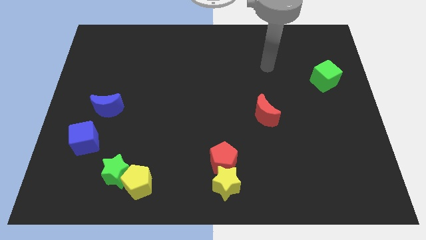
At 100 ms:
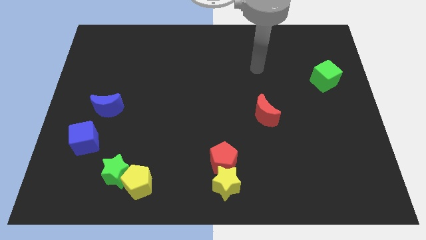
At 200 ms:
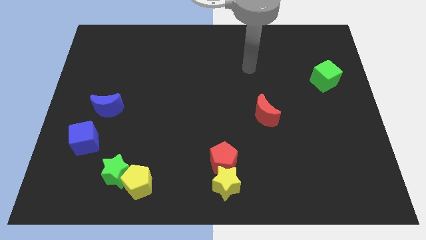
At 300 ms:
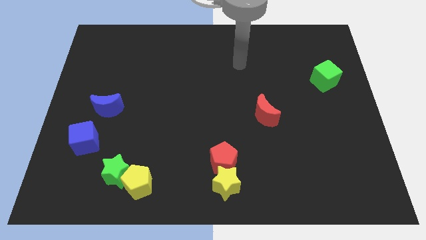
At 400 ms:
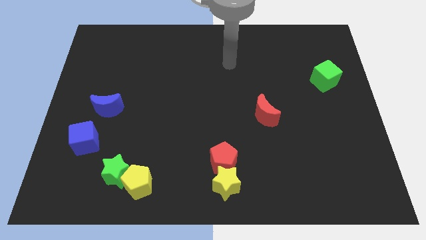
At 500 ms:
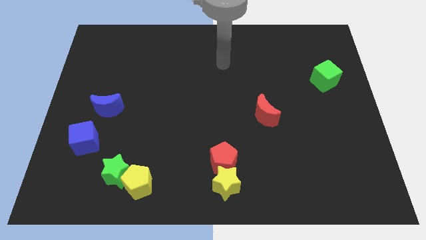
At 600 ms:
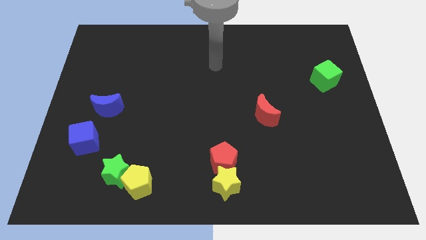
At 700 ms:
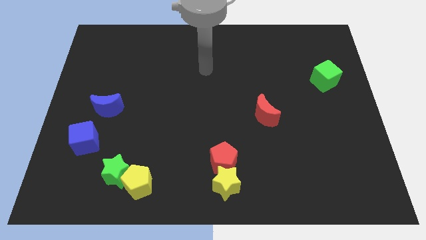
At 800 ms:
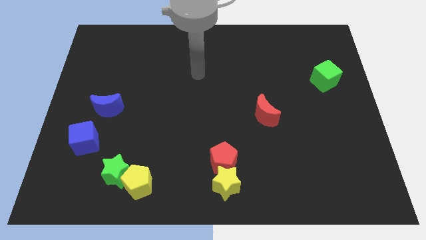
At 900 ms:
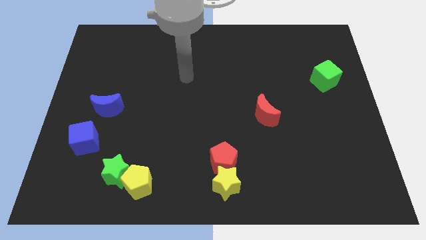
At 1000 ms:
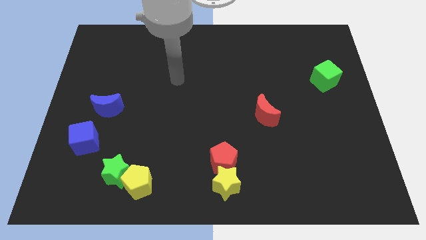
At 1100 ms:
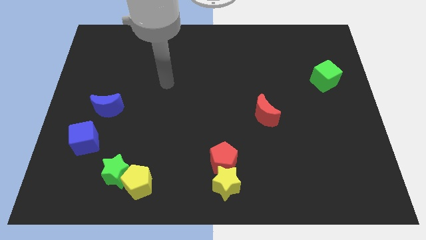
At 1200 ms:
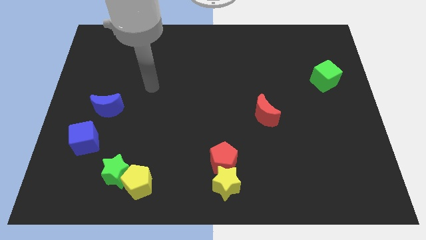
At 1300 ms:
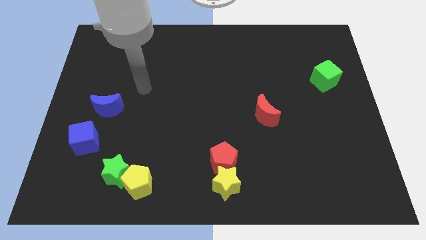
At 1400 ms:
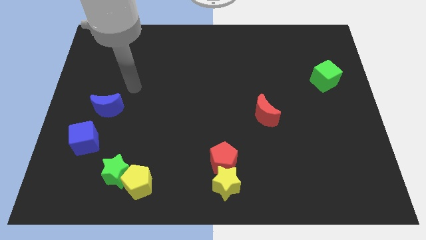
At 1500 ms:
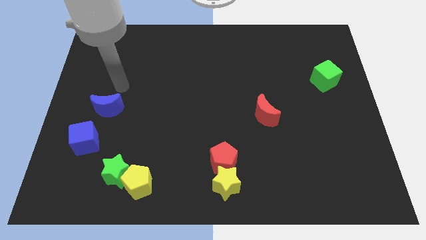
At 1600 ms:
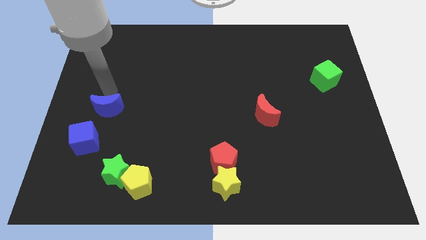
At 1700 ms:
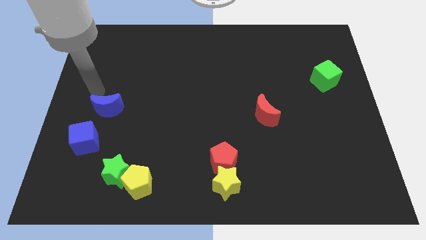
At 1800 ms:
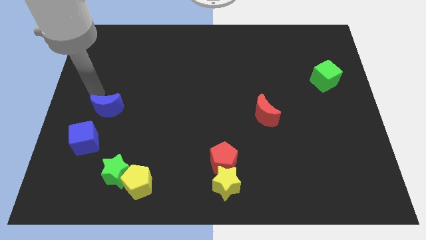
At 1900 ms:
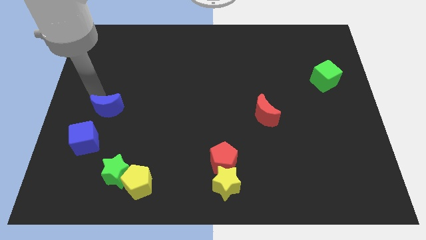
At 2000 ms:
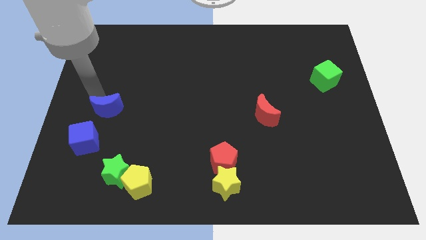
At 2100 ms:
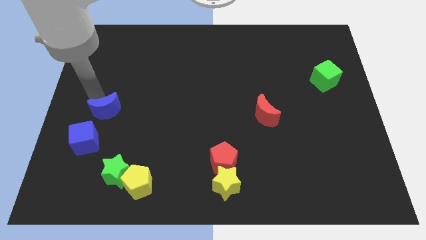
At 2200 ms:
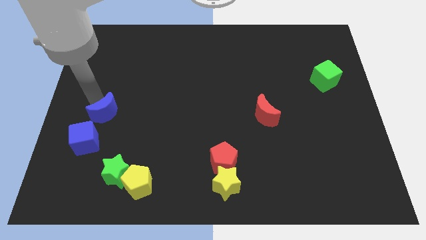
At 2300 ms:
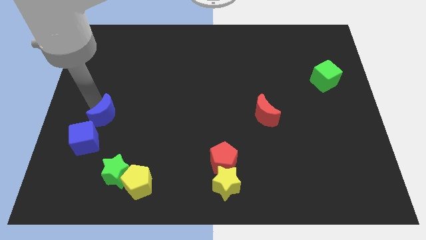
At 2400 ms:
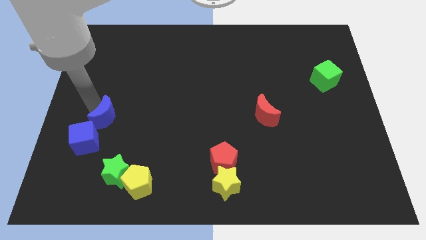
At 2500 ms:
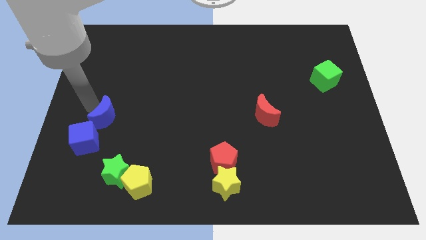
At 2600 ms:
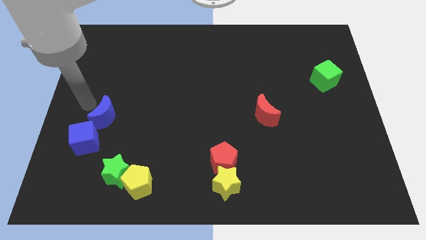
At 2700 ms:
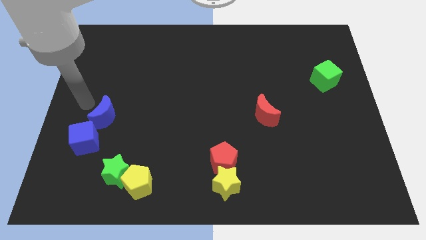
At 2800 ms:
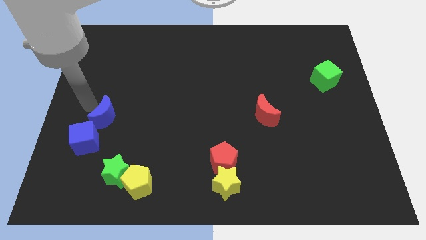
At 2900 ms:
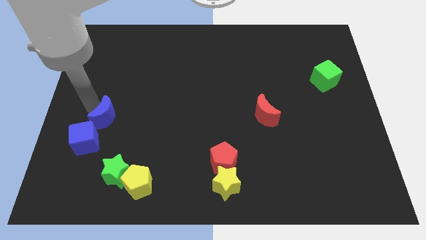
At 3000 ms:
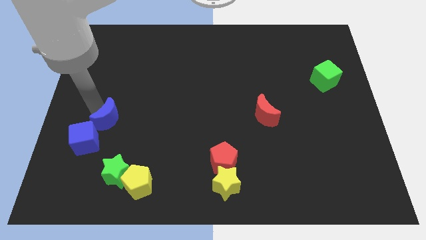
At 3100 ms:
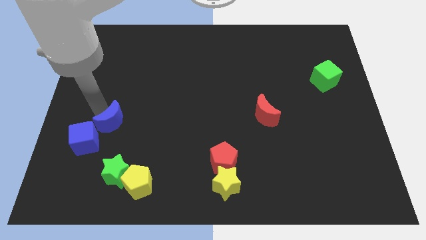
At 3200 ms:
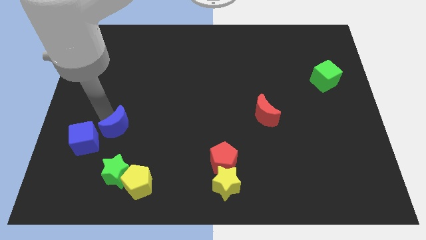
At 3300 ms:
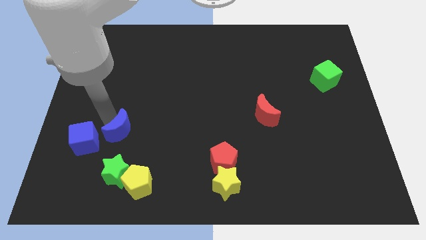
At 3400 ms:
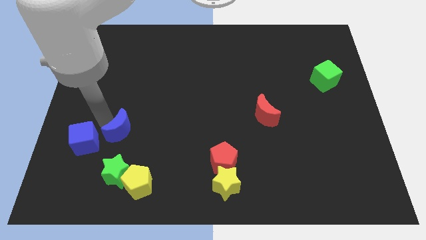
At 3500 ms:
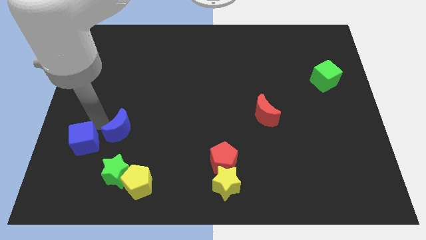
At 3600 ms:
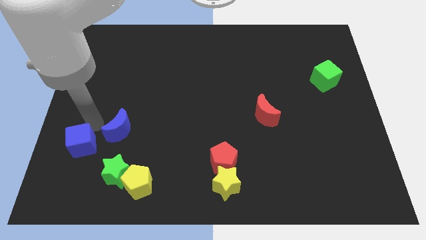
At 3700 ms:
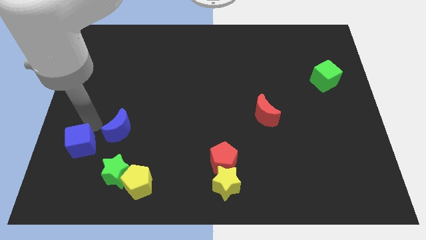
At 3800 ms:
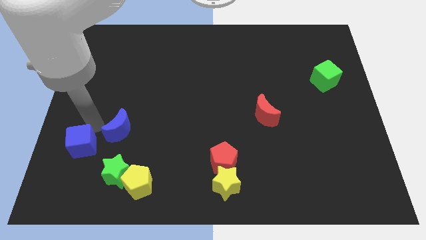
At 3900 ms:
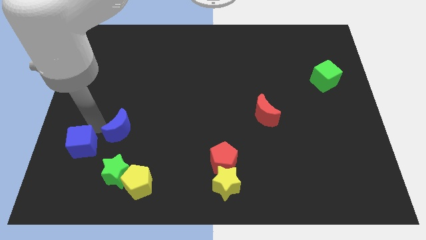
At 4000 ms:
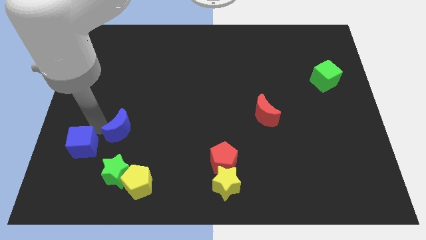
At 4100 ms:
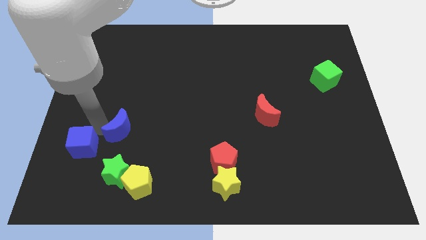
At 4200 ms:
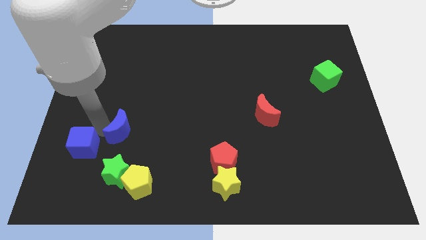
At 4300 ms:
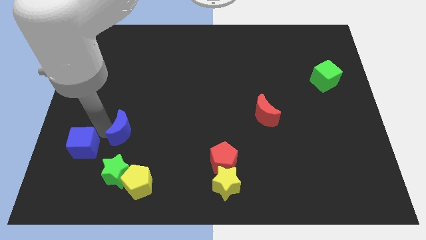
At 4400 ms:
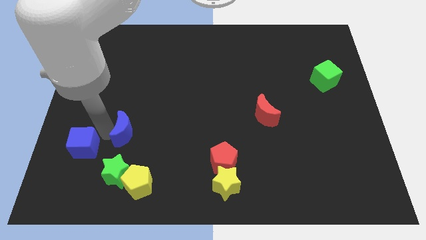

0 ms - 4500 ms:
slide the blue moon to the top side of the yellow pentagon

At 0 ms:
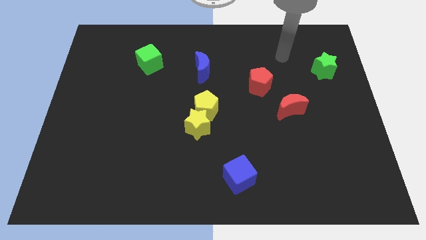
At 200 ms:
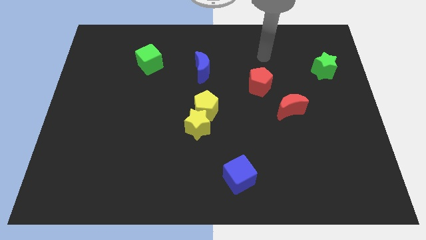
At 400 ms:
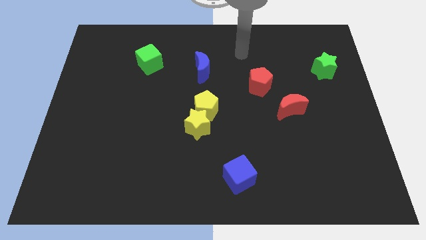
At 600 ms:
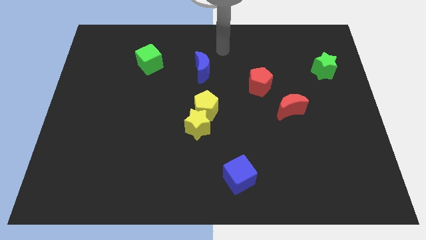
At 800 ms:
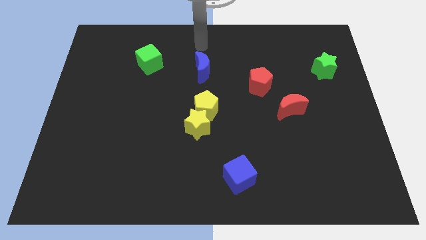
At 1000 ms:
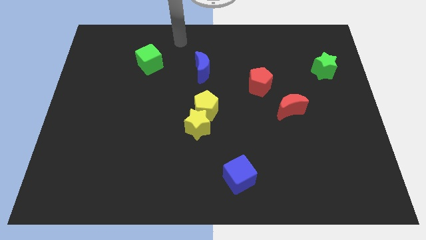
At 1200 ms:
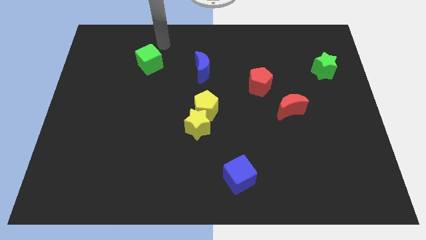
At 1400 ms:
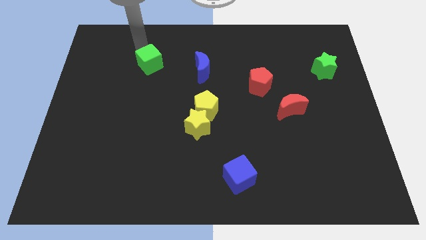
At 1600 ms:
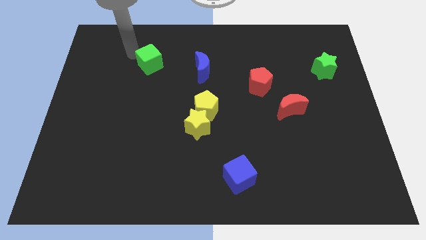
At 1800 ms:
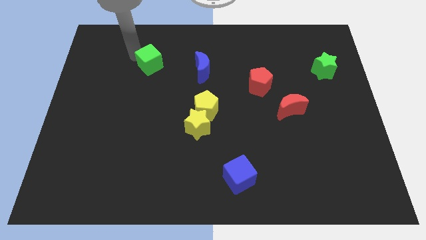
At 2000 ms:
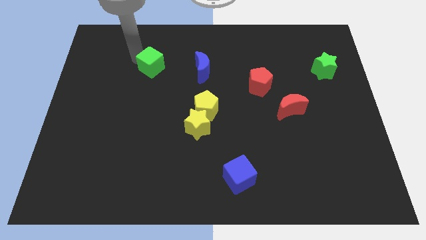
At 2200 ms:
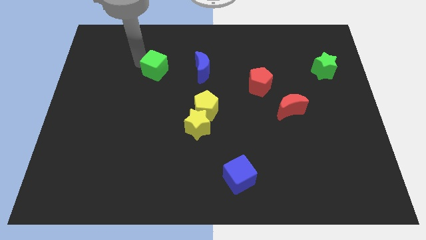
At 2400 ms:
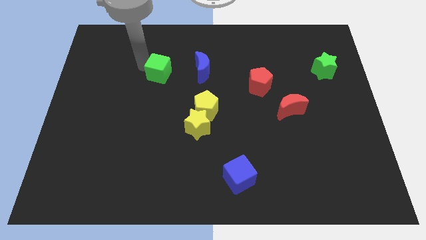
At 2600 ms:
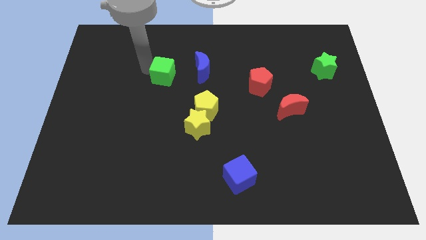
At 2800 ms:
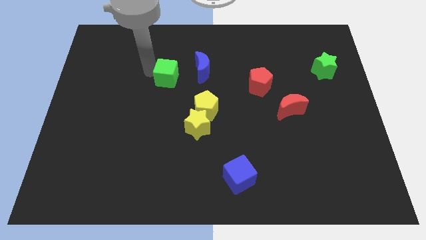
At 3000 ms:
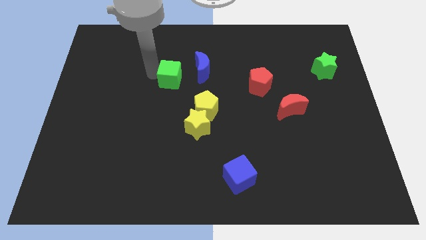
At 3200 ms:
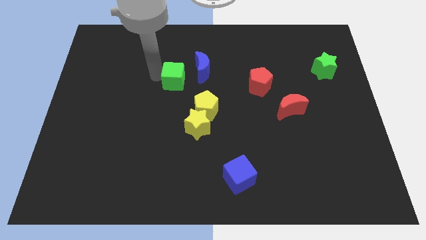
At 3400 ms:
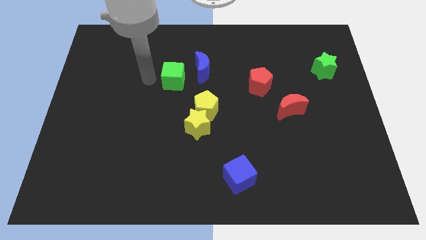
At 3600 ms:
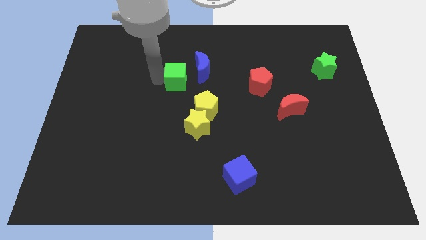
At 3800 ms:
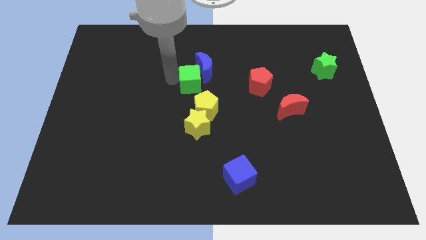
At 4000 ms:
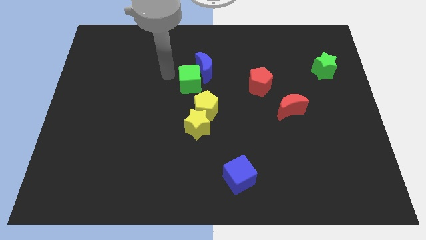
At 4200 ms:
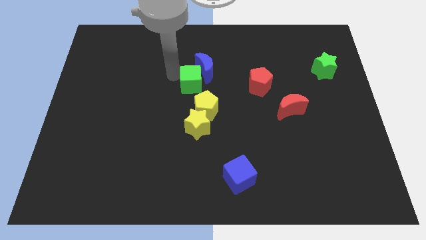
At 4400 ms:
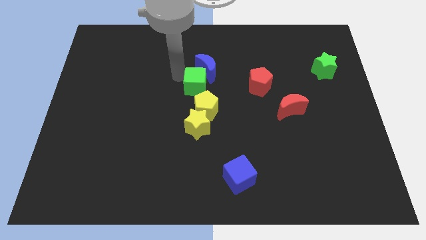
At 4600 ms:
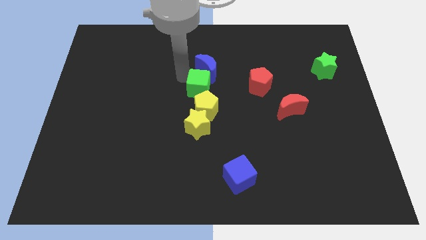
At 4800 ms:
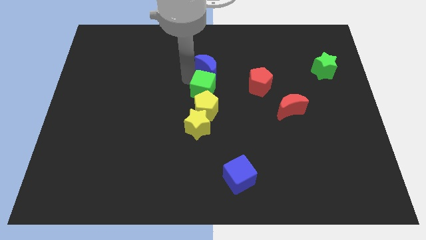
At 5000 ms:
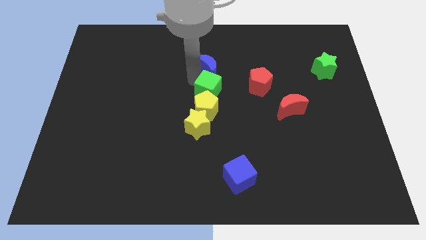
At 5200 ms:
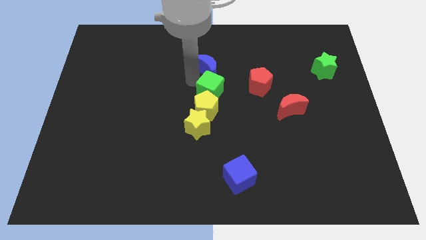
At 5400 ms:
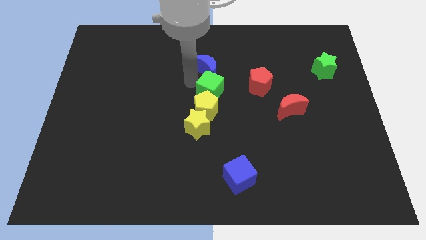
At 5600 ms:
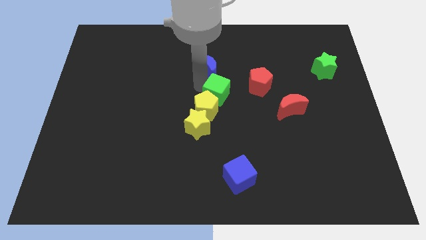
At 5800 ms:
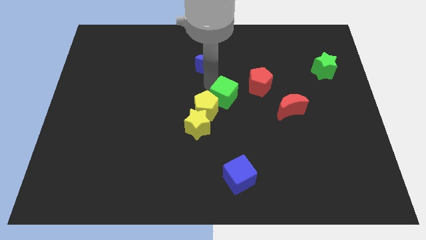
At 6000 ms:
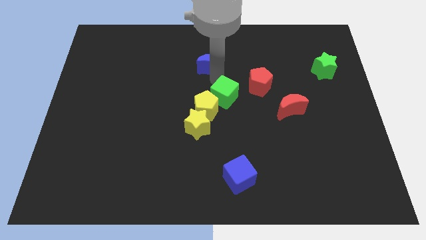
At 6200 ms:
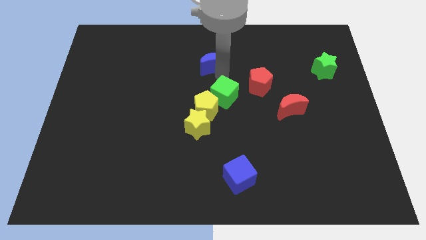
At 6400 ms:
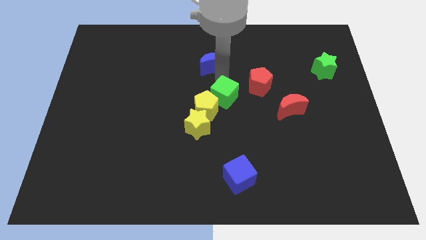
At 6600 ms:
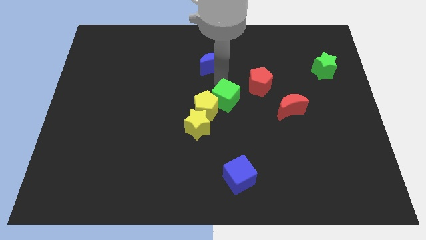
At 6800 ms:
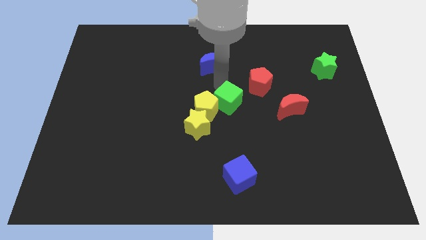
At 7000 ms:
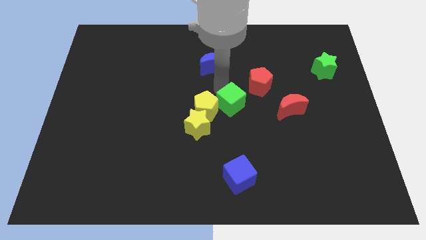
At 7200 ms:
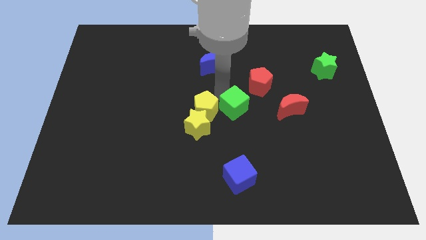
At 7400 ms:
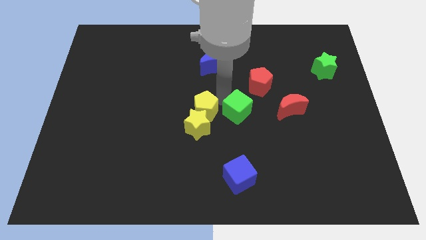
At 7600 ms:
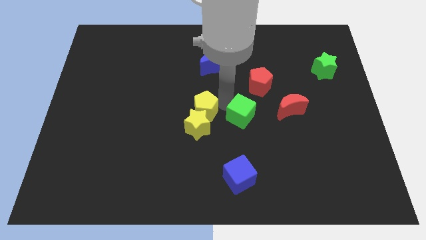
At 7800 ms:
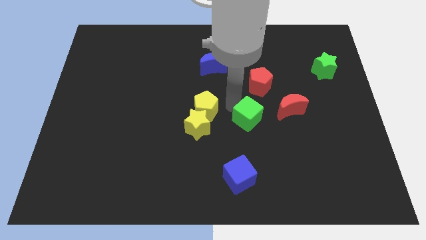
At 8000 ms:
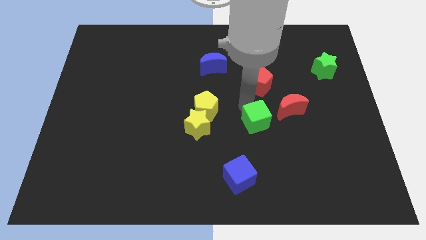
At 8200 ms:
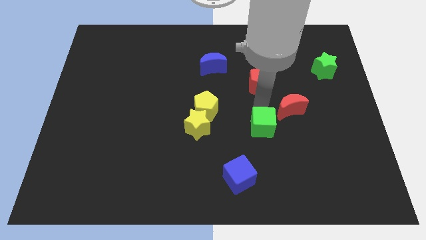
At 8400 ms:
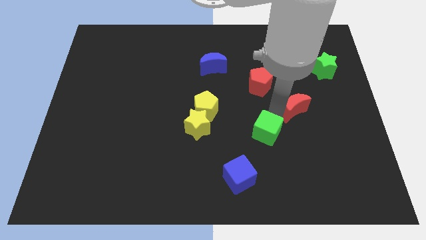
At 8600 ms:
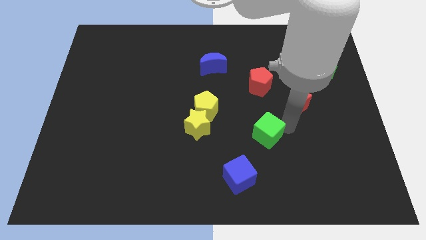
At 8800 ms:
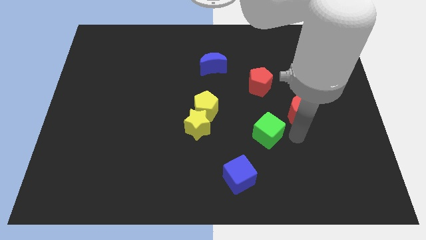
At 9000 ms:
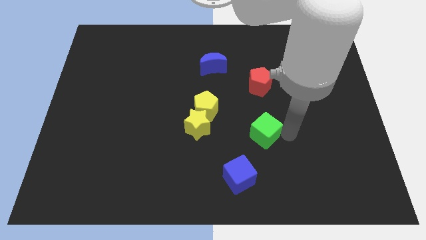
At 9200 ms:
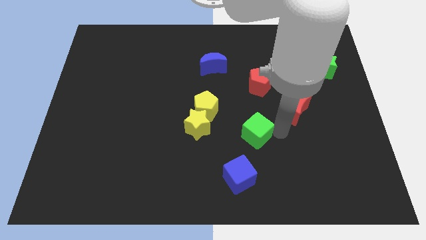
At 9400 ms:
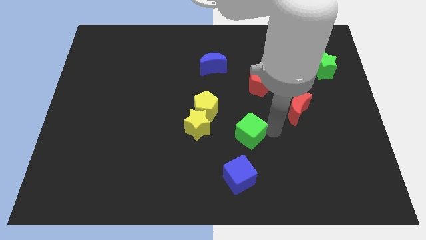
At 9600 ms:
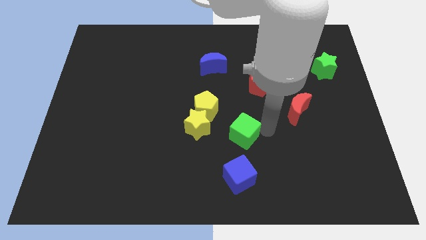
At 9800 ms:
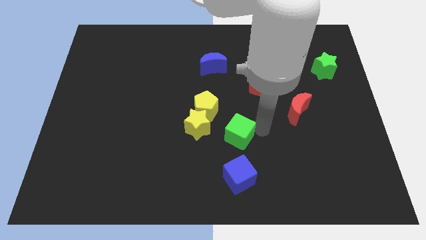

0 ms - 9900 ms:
push the green cube to the bottom right side of the yellow star
